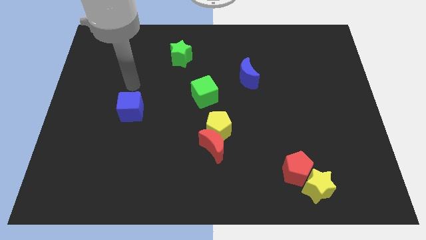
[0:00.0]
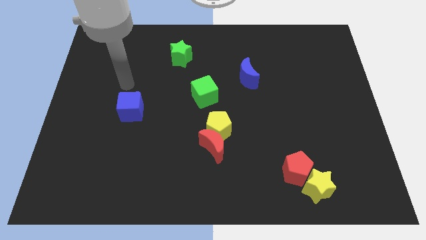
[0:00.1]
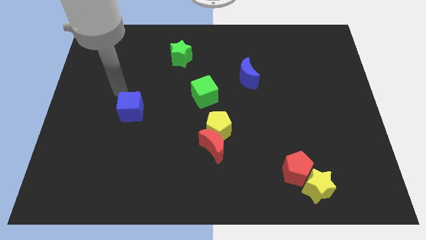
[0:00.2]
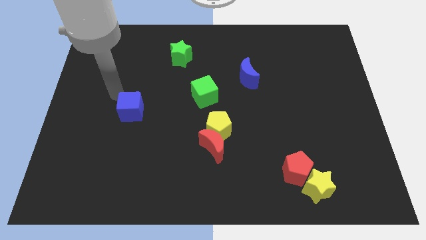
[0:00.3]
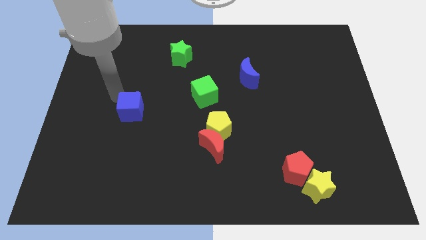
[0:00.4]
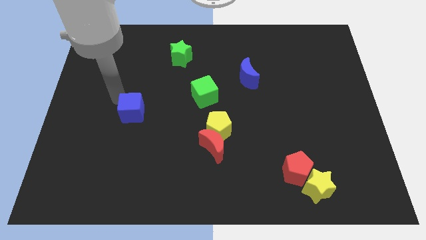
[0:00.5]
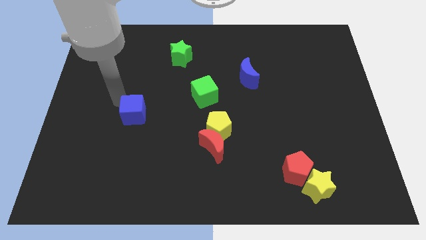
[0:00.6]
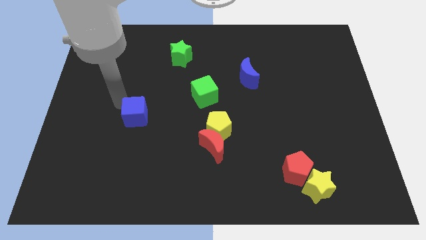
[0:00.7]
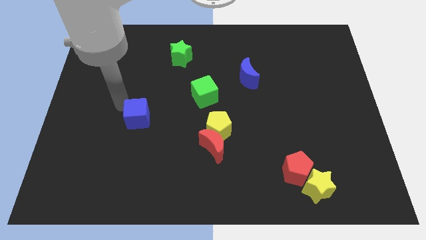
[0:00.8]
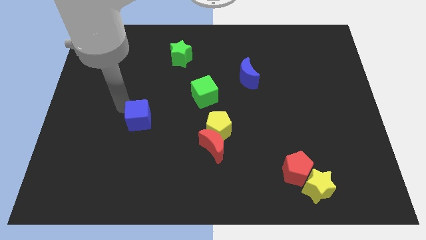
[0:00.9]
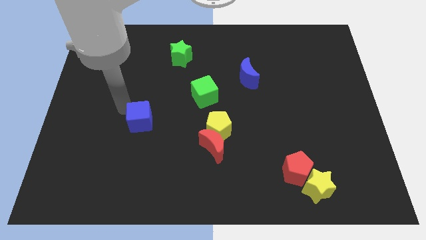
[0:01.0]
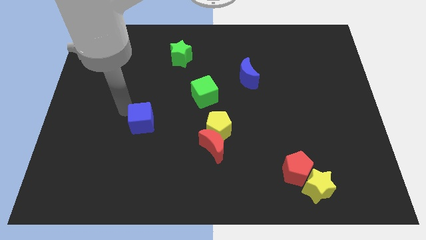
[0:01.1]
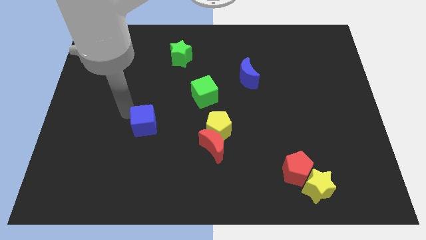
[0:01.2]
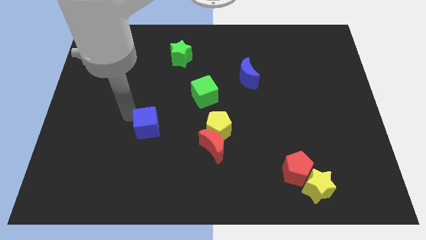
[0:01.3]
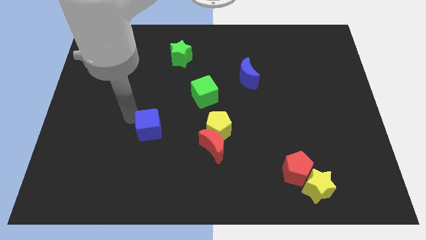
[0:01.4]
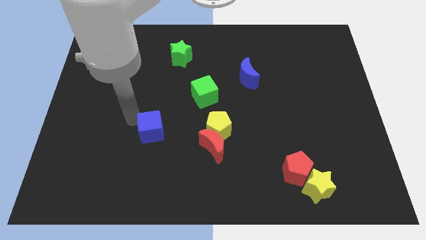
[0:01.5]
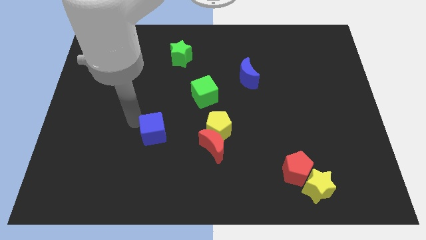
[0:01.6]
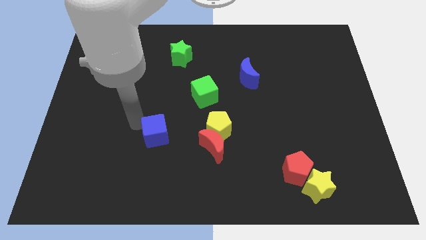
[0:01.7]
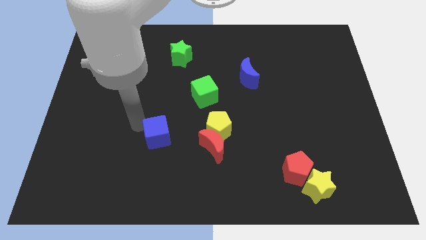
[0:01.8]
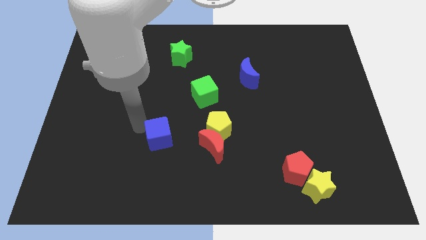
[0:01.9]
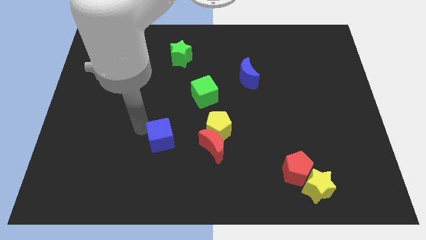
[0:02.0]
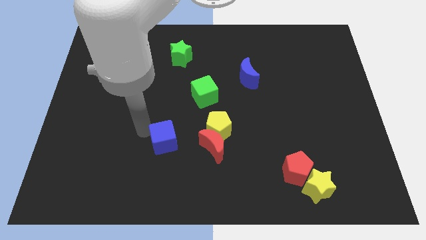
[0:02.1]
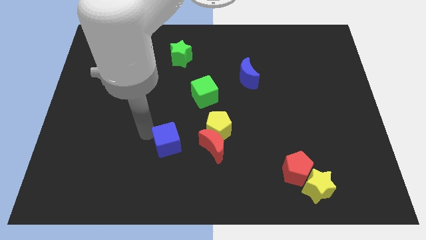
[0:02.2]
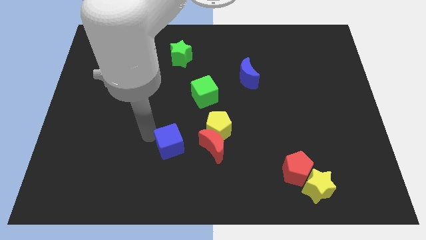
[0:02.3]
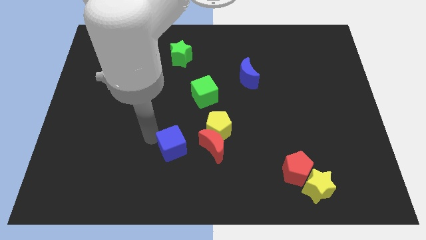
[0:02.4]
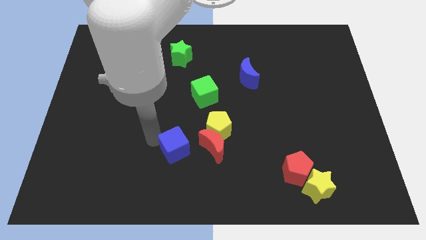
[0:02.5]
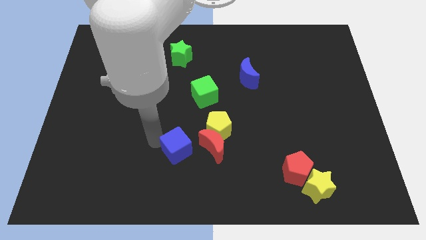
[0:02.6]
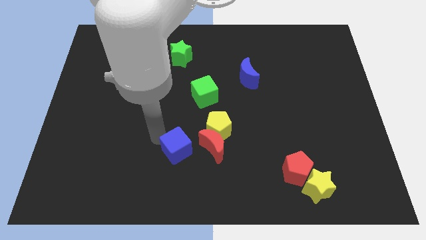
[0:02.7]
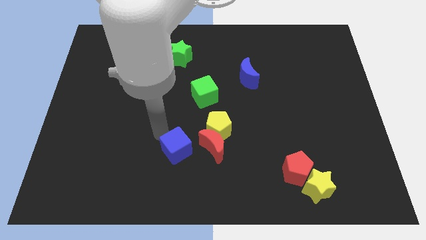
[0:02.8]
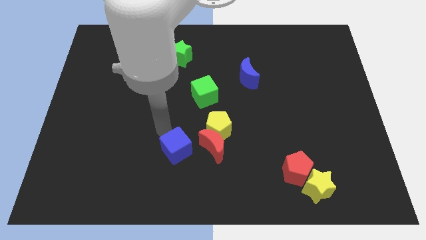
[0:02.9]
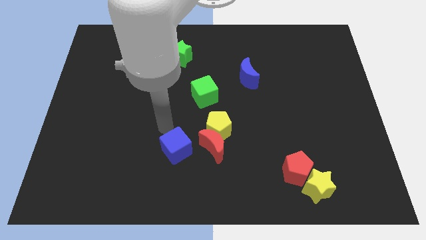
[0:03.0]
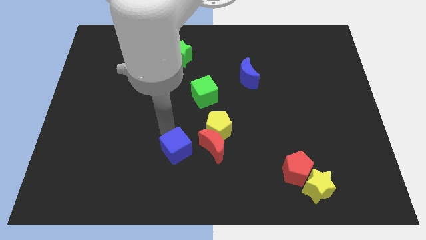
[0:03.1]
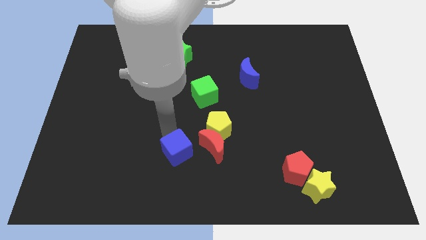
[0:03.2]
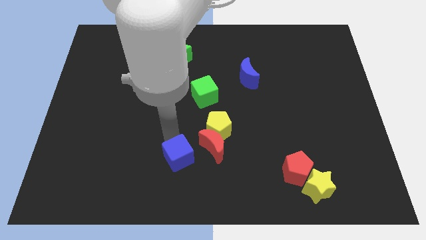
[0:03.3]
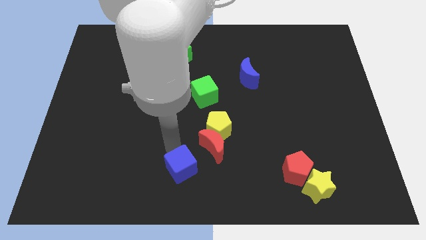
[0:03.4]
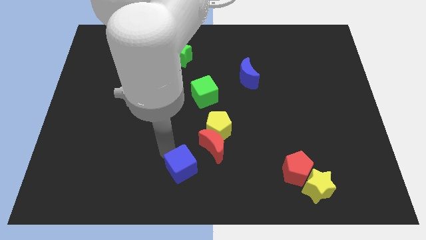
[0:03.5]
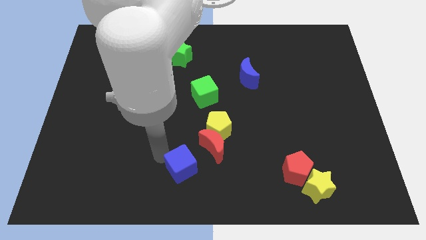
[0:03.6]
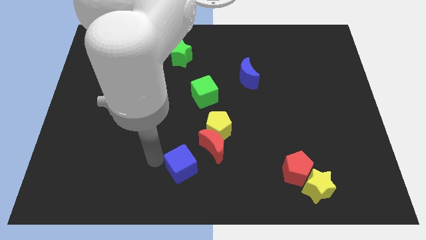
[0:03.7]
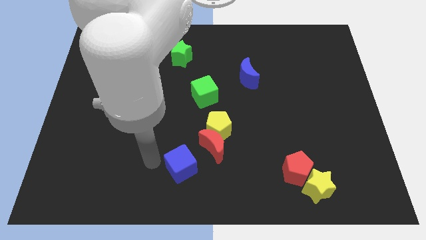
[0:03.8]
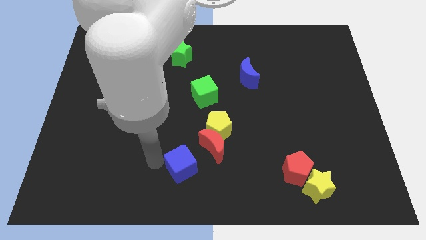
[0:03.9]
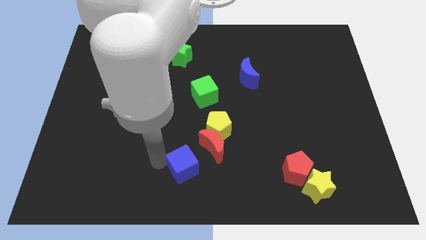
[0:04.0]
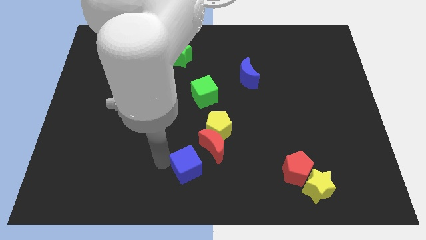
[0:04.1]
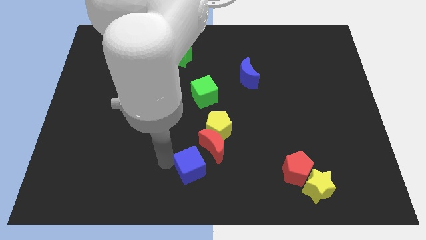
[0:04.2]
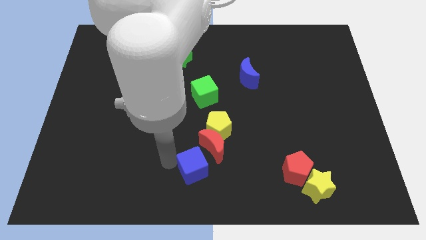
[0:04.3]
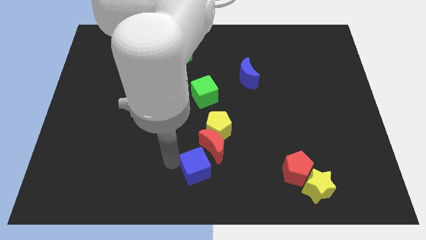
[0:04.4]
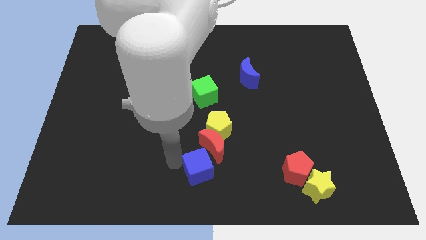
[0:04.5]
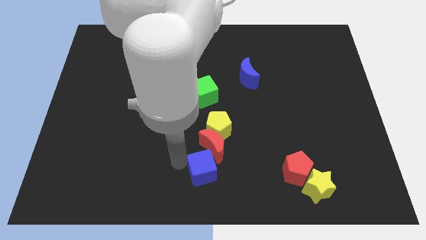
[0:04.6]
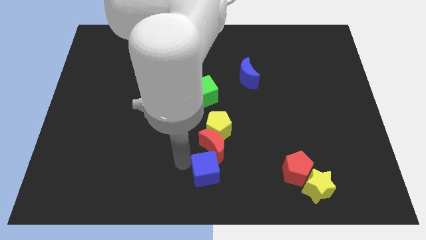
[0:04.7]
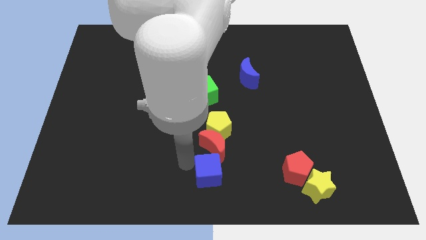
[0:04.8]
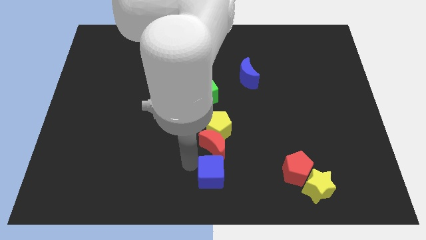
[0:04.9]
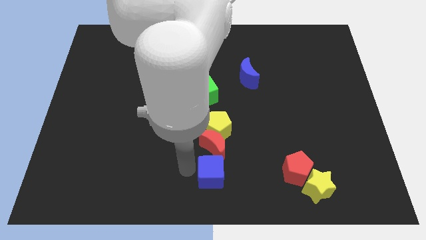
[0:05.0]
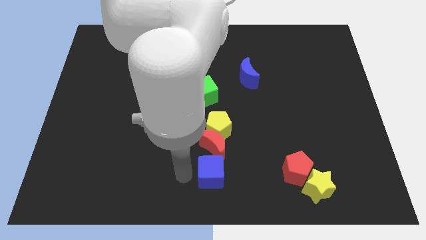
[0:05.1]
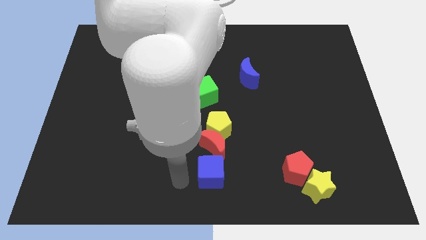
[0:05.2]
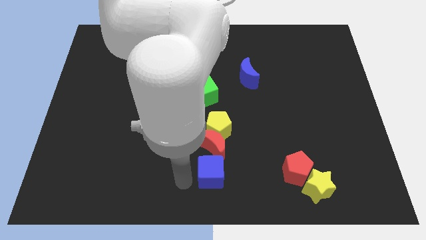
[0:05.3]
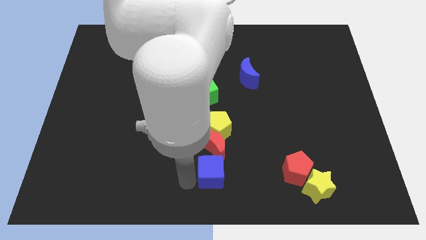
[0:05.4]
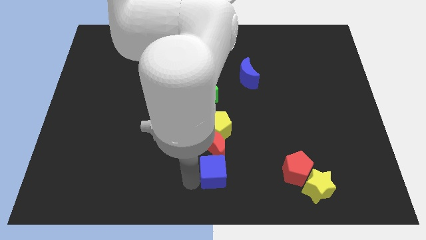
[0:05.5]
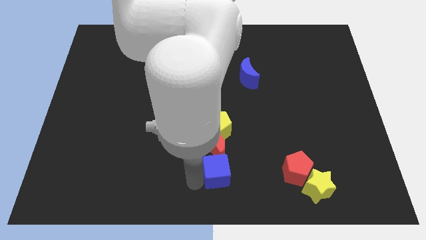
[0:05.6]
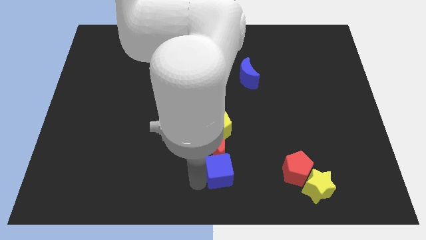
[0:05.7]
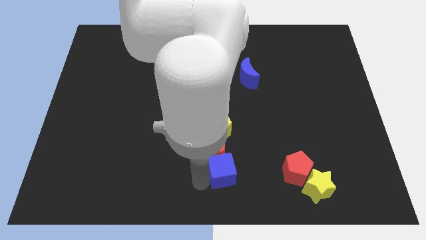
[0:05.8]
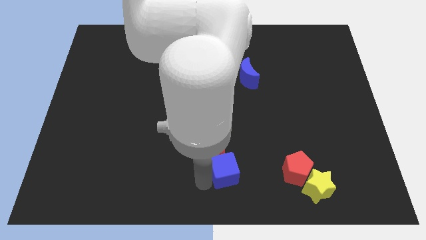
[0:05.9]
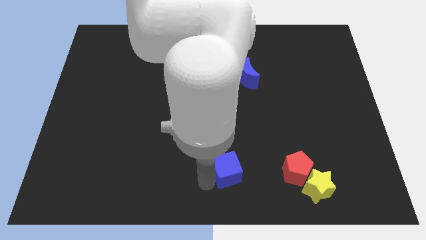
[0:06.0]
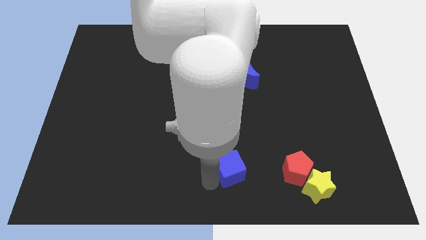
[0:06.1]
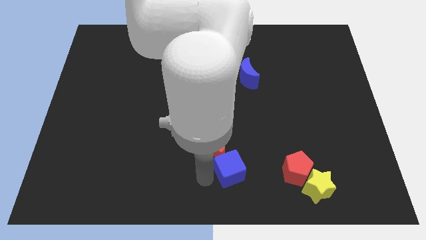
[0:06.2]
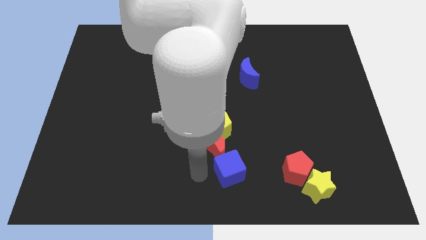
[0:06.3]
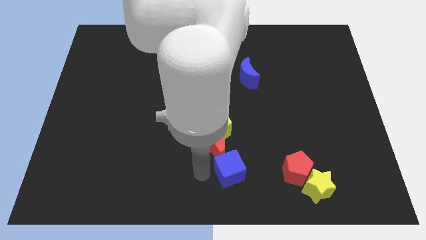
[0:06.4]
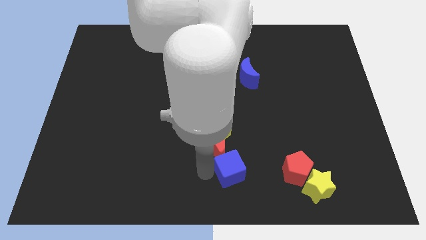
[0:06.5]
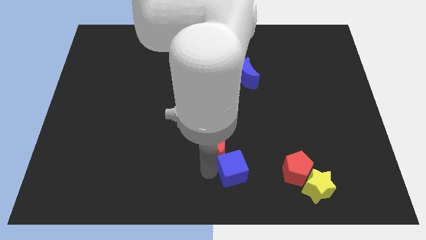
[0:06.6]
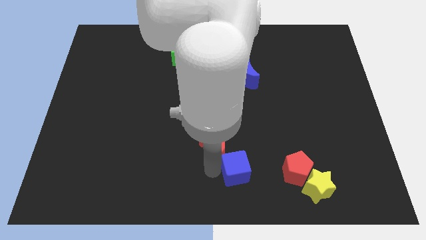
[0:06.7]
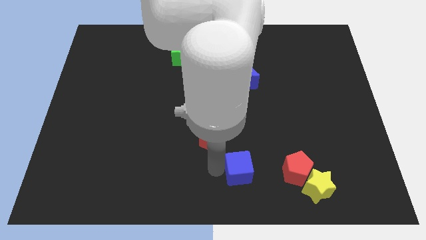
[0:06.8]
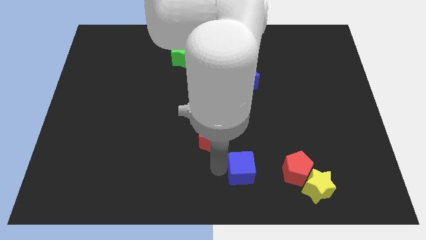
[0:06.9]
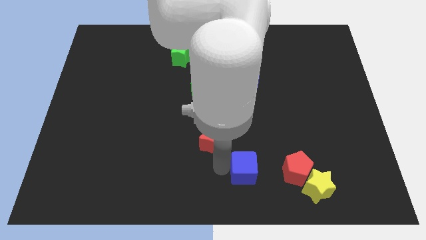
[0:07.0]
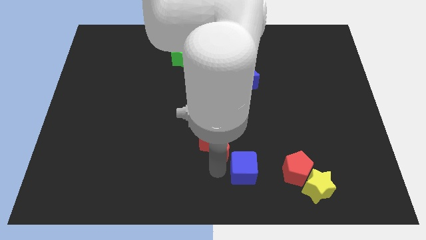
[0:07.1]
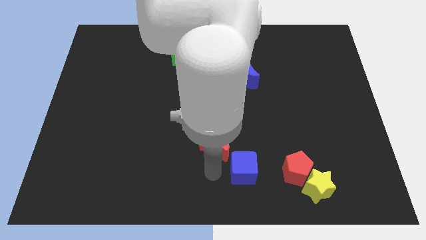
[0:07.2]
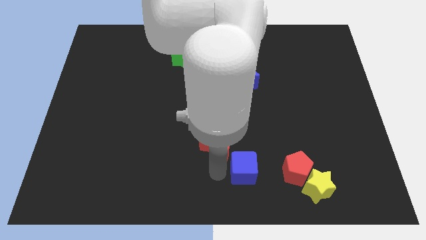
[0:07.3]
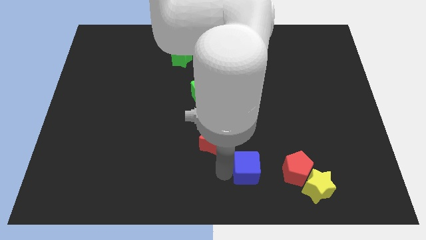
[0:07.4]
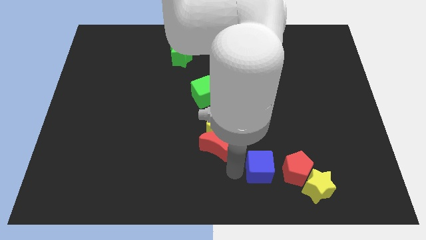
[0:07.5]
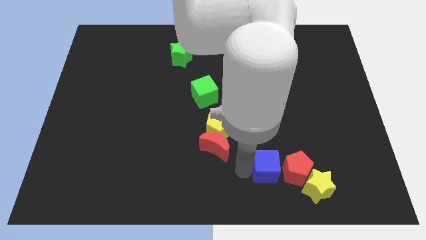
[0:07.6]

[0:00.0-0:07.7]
slide the blue cube close to the red pentagon
